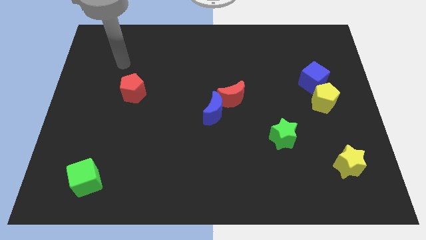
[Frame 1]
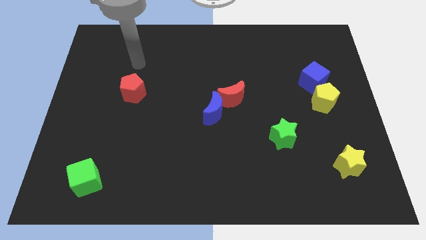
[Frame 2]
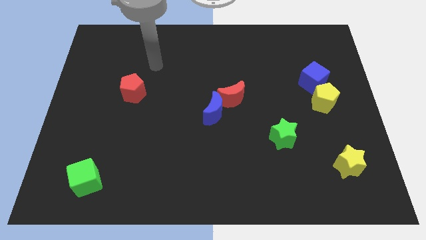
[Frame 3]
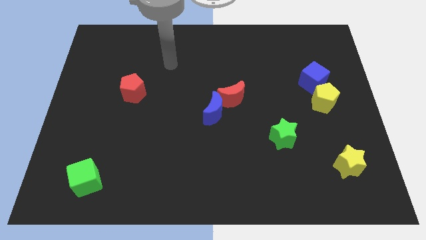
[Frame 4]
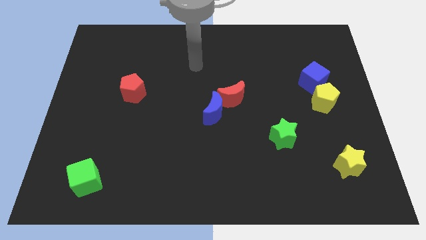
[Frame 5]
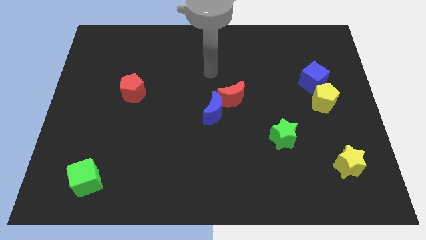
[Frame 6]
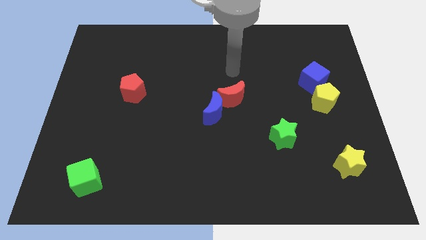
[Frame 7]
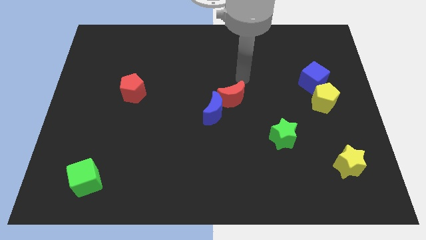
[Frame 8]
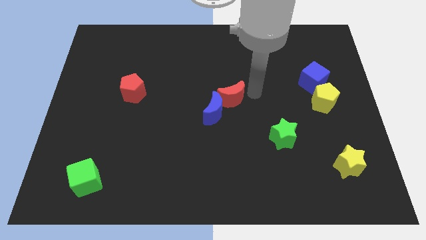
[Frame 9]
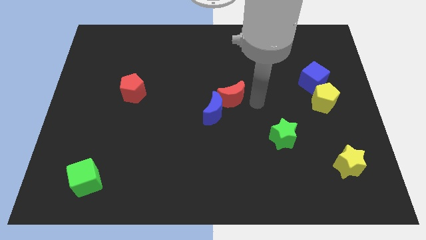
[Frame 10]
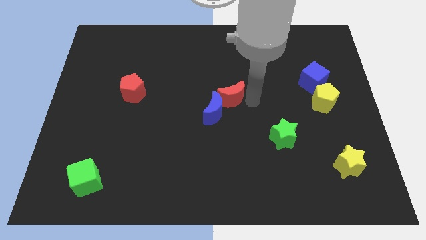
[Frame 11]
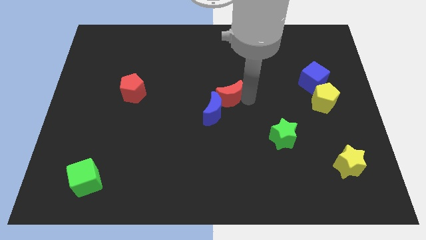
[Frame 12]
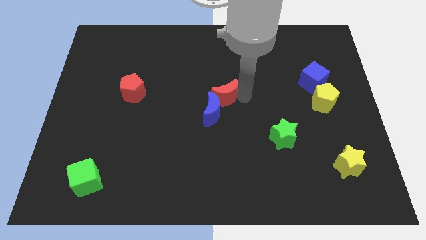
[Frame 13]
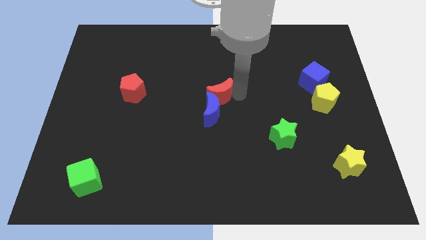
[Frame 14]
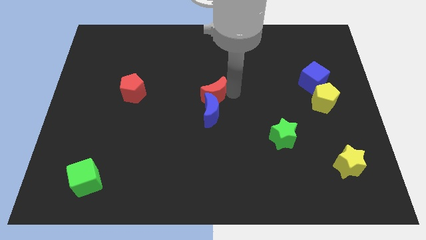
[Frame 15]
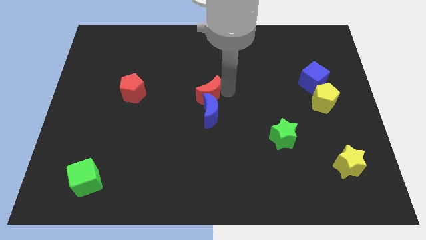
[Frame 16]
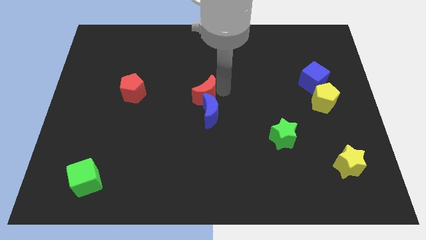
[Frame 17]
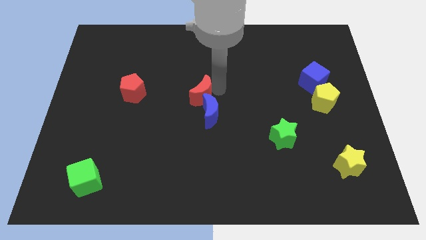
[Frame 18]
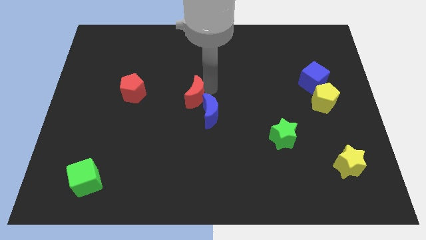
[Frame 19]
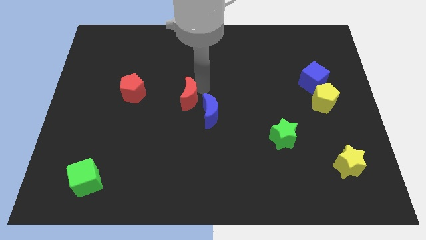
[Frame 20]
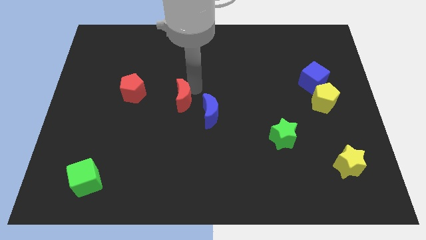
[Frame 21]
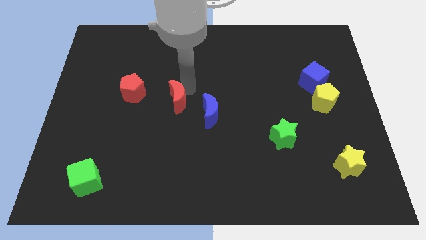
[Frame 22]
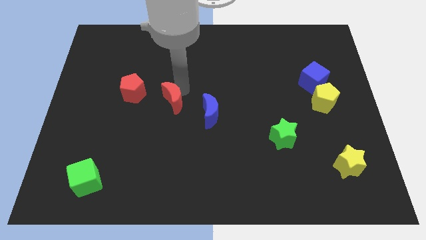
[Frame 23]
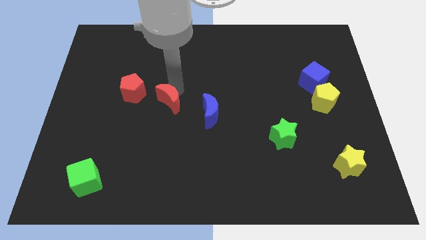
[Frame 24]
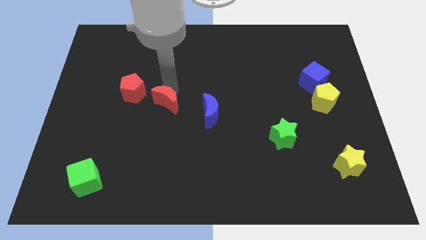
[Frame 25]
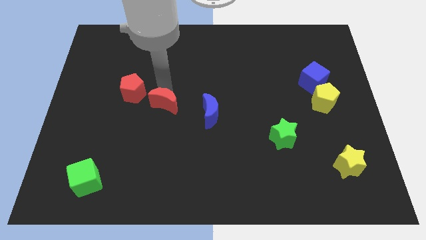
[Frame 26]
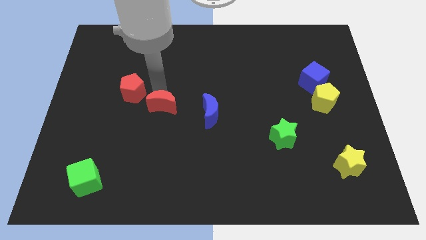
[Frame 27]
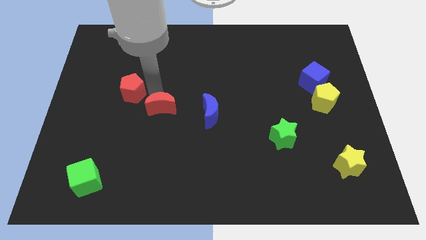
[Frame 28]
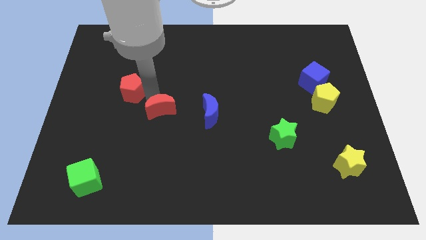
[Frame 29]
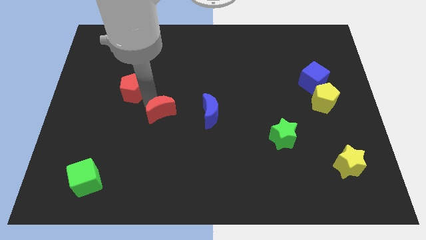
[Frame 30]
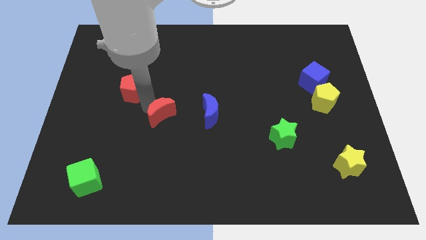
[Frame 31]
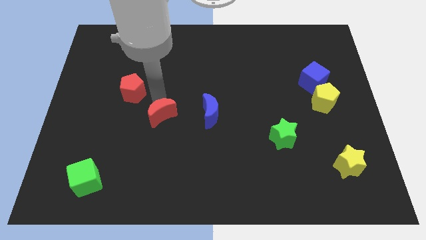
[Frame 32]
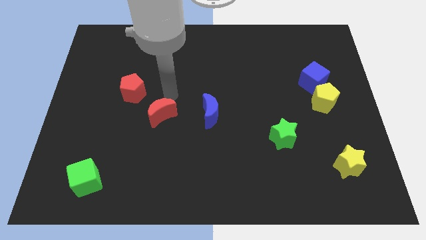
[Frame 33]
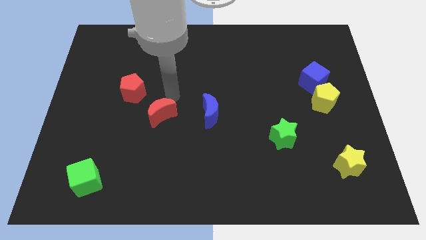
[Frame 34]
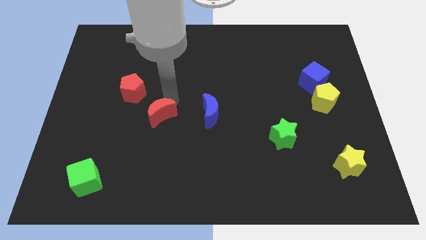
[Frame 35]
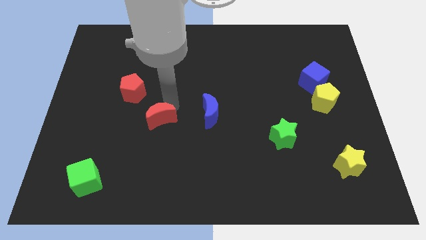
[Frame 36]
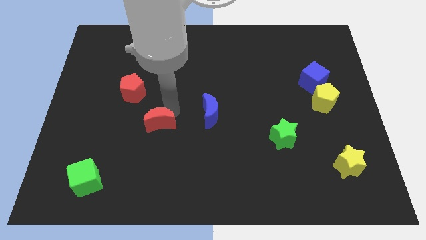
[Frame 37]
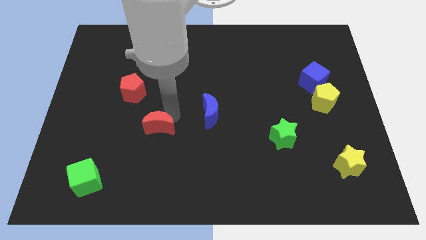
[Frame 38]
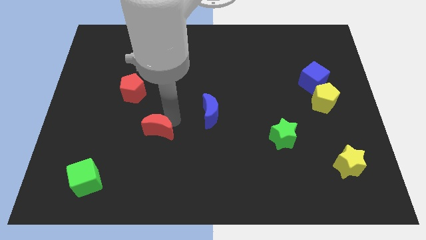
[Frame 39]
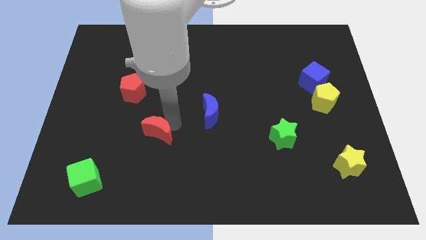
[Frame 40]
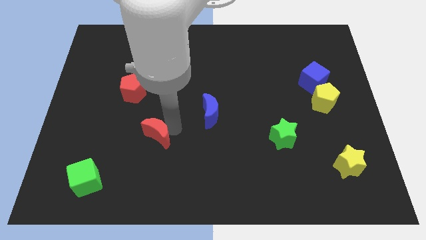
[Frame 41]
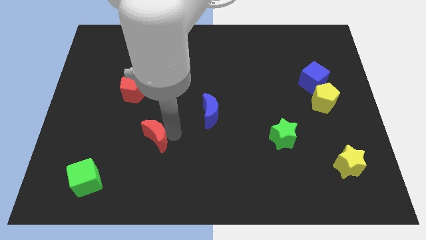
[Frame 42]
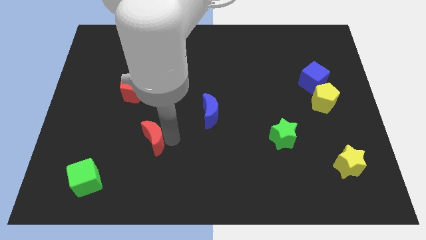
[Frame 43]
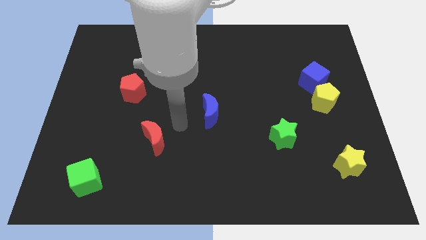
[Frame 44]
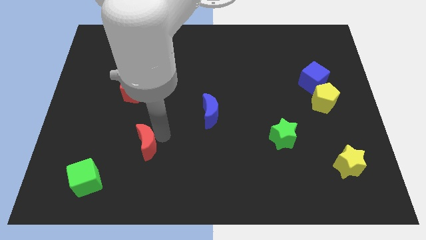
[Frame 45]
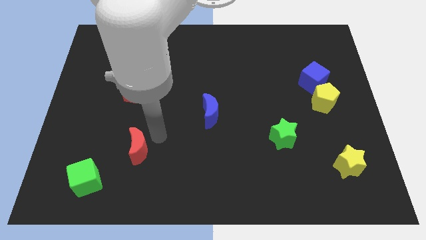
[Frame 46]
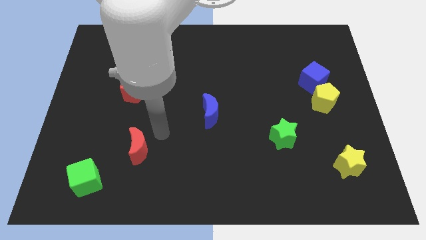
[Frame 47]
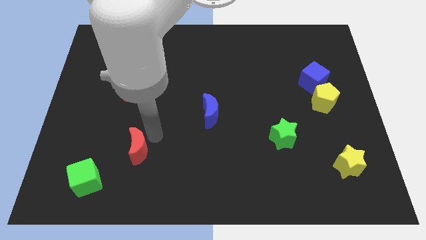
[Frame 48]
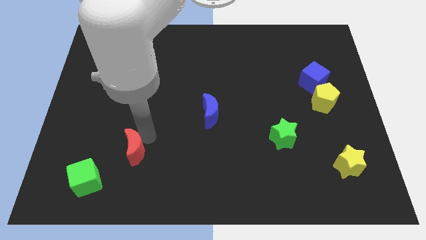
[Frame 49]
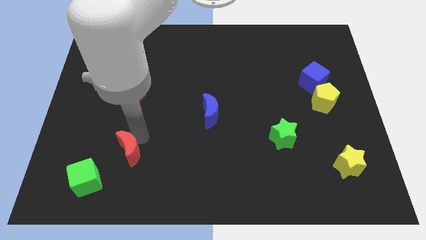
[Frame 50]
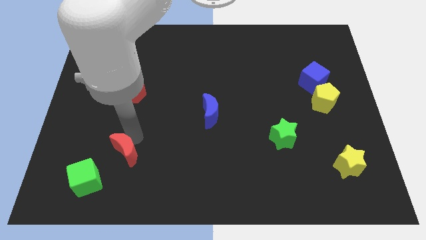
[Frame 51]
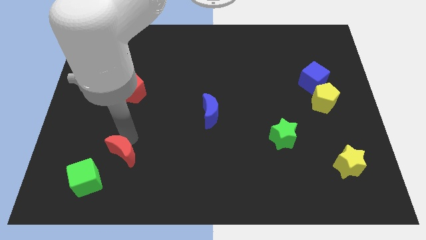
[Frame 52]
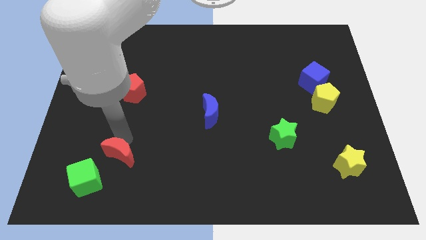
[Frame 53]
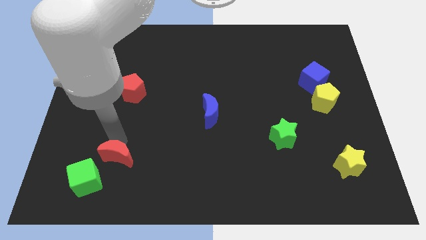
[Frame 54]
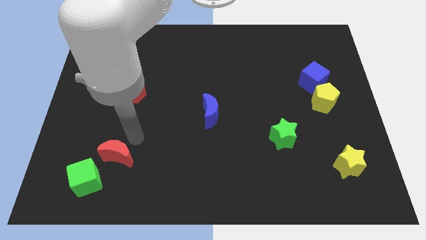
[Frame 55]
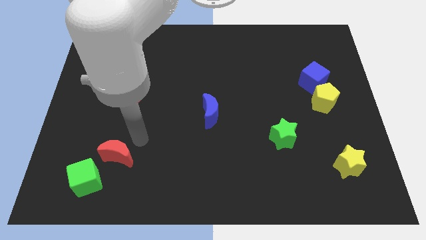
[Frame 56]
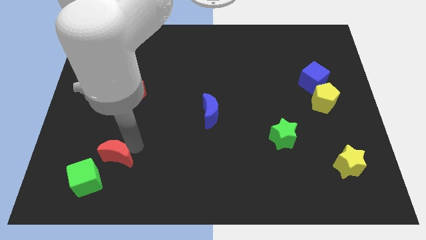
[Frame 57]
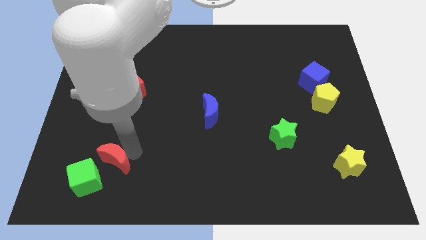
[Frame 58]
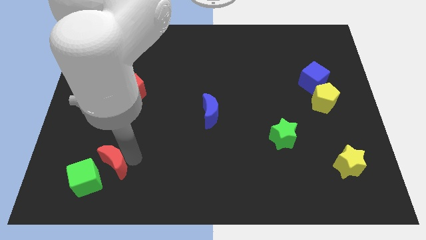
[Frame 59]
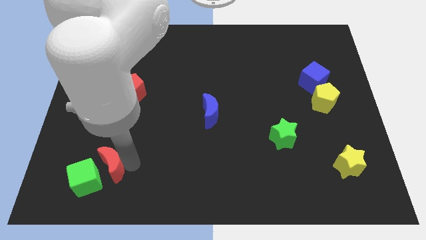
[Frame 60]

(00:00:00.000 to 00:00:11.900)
put the red moon close to the green cube

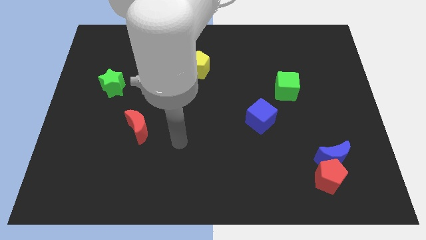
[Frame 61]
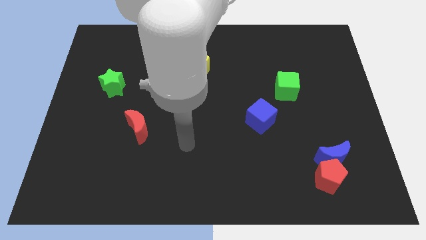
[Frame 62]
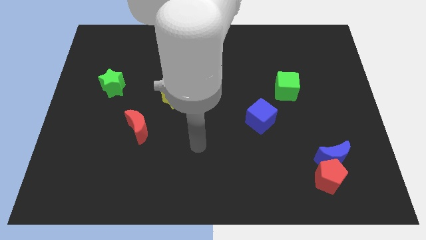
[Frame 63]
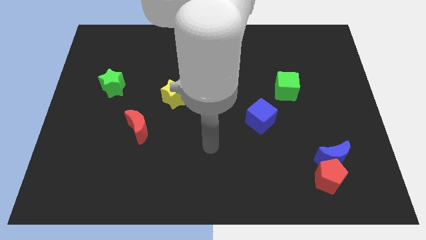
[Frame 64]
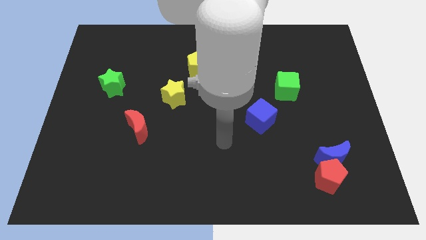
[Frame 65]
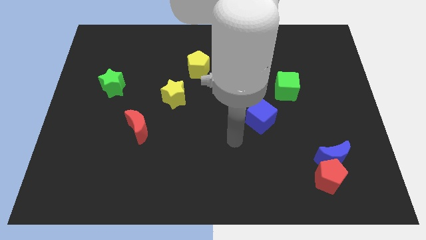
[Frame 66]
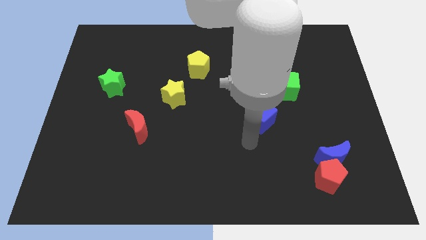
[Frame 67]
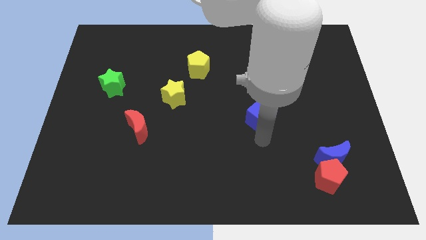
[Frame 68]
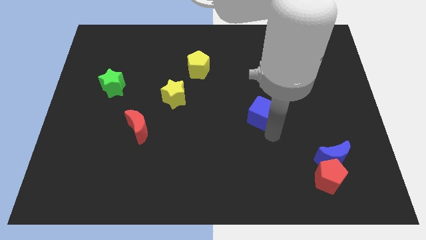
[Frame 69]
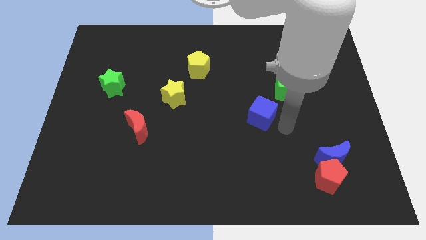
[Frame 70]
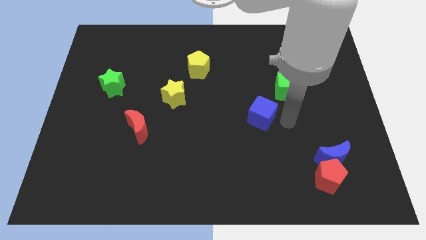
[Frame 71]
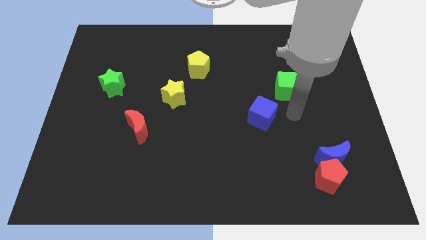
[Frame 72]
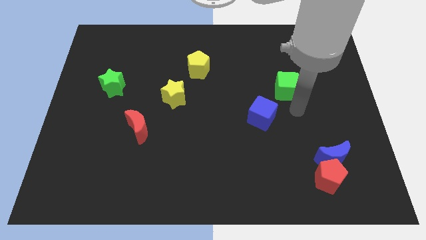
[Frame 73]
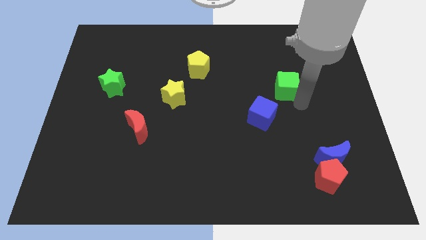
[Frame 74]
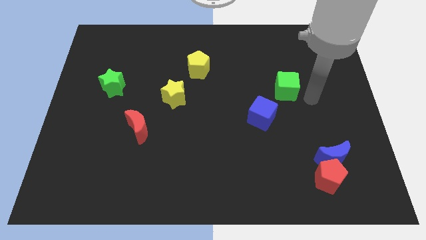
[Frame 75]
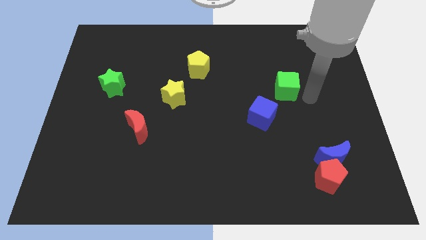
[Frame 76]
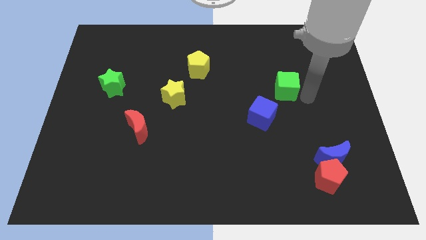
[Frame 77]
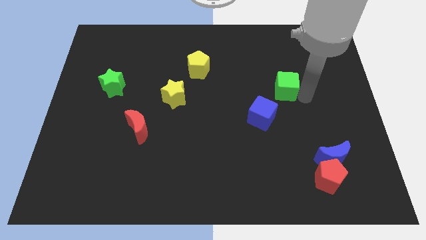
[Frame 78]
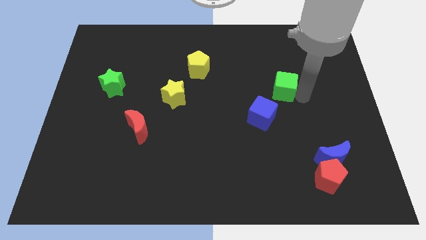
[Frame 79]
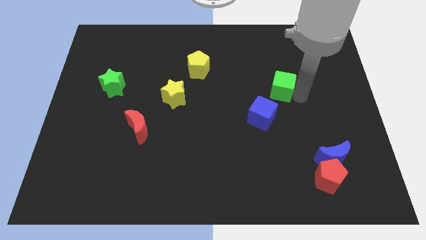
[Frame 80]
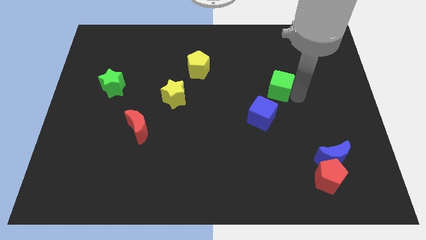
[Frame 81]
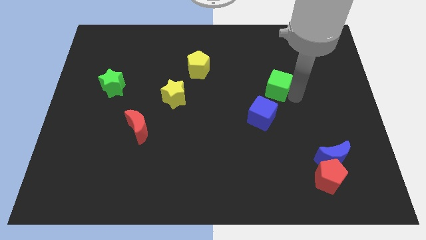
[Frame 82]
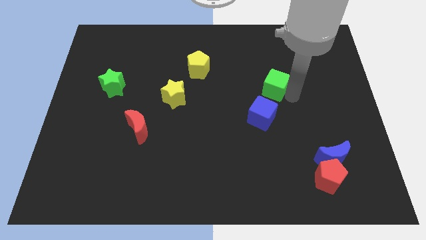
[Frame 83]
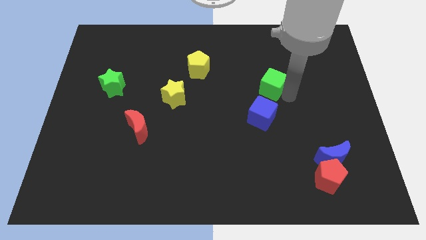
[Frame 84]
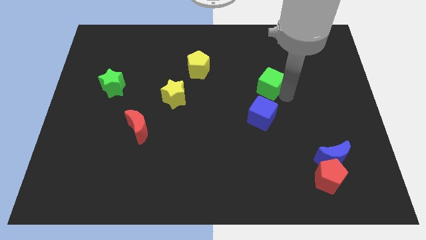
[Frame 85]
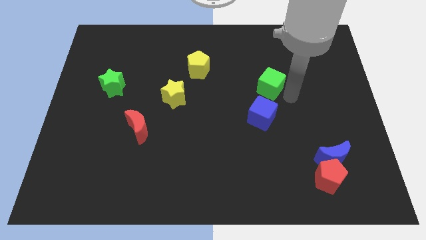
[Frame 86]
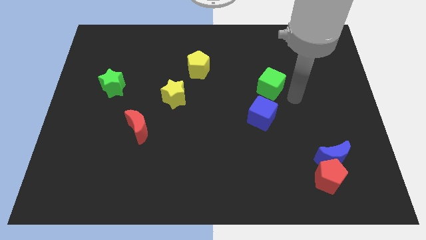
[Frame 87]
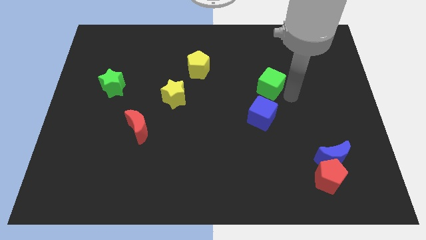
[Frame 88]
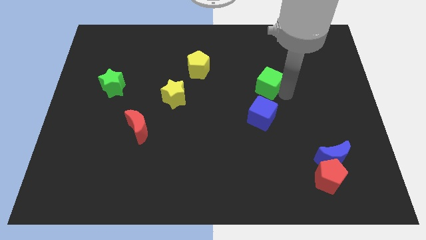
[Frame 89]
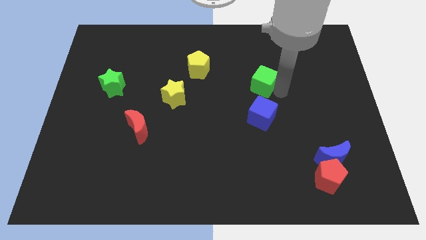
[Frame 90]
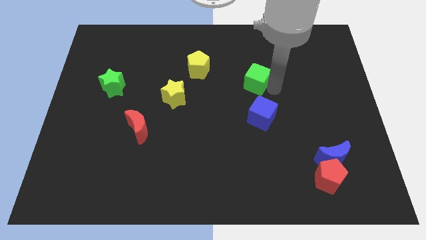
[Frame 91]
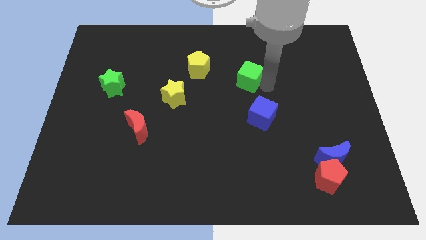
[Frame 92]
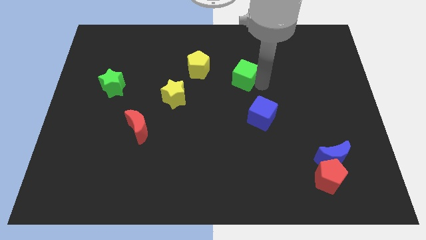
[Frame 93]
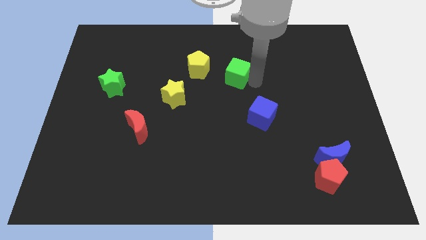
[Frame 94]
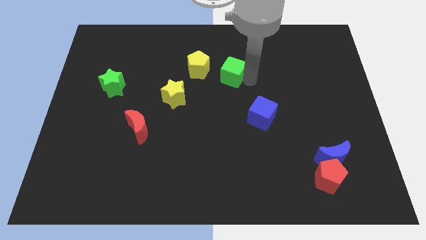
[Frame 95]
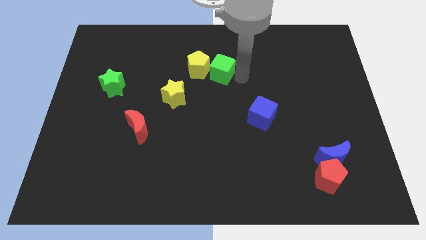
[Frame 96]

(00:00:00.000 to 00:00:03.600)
push the green cube close to the yellow pentagon
